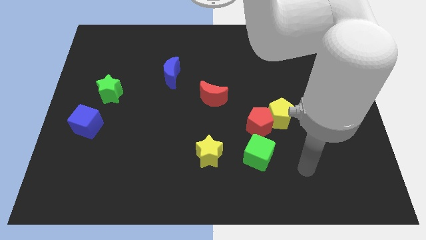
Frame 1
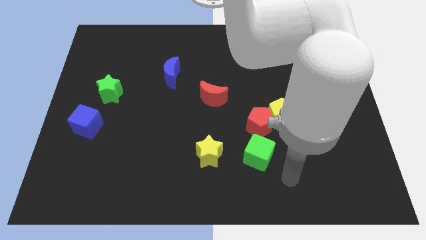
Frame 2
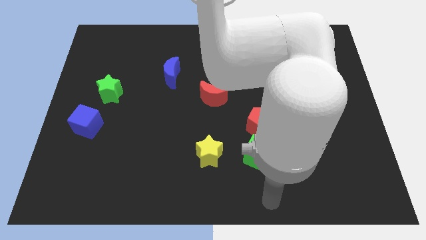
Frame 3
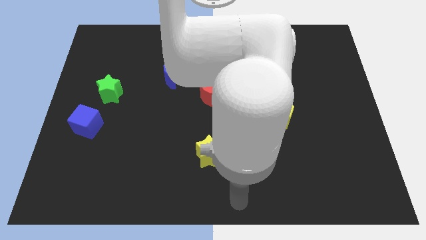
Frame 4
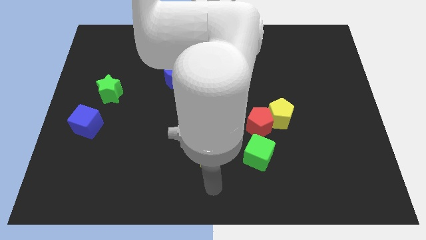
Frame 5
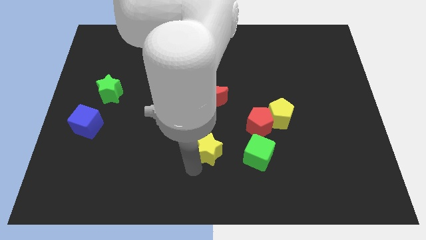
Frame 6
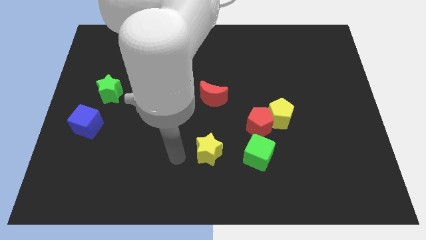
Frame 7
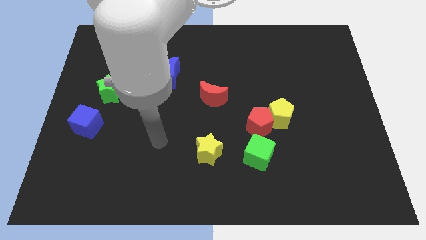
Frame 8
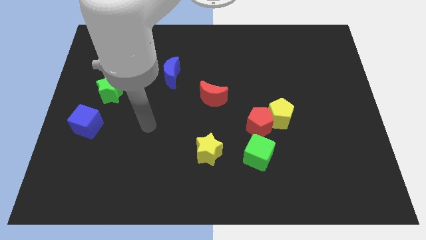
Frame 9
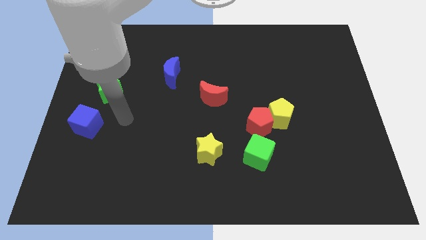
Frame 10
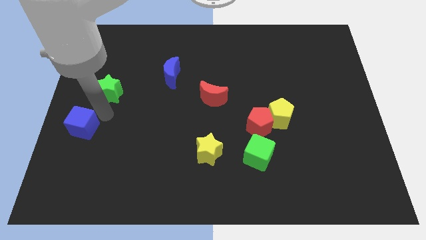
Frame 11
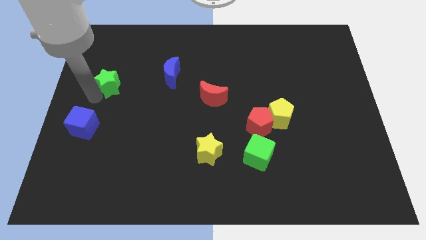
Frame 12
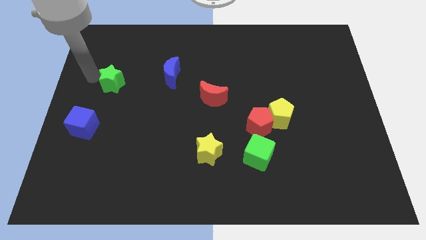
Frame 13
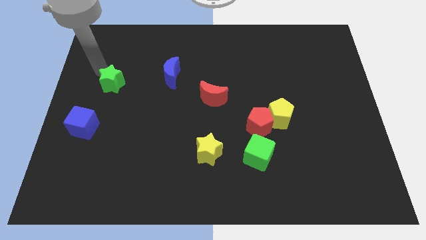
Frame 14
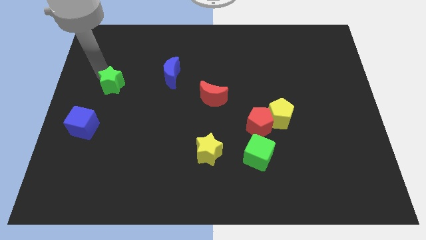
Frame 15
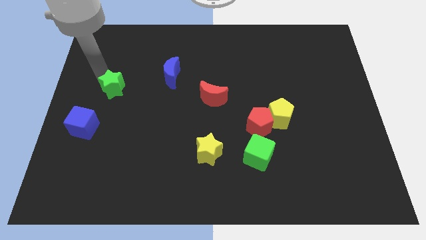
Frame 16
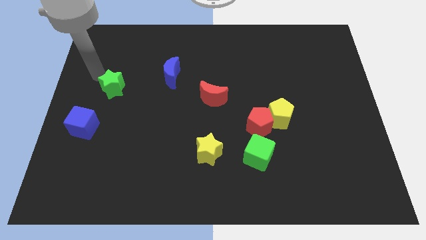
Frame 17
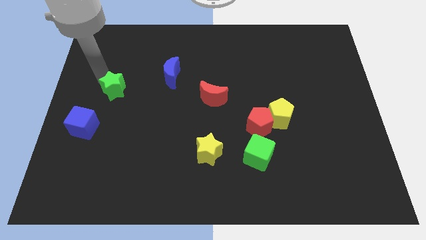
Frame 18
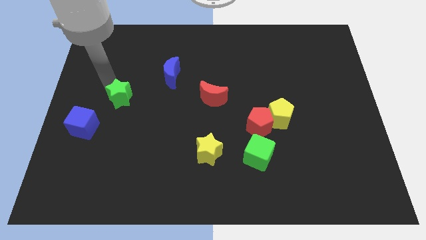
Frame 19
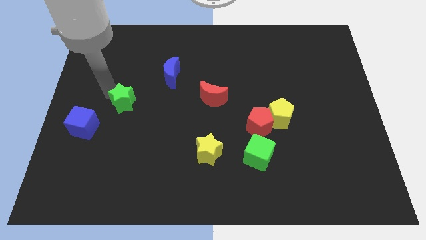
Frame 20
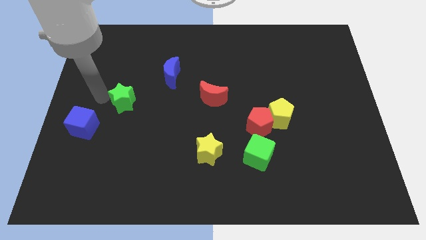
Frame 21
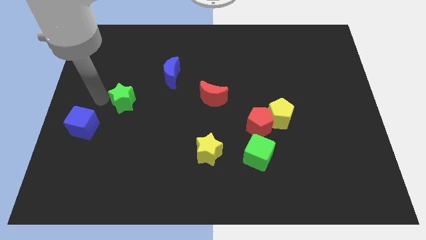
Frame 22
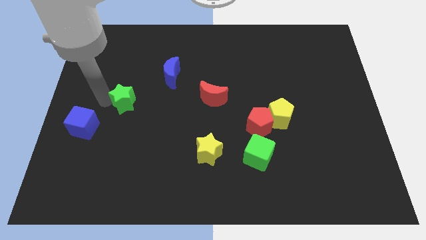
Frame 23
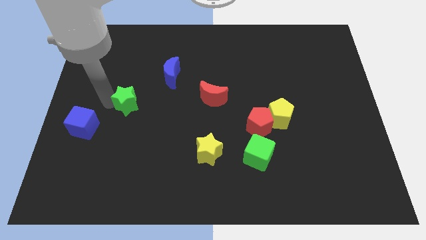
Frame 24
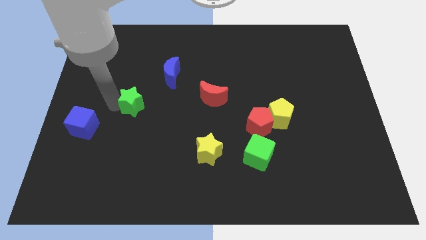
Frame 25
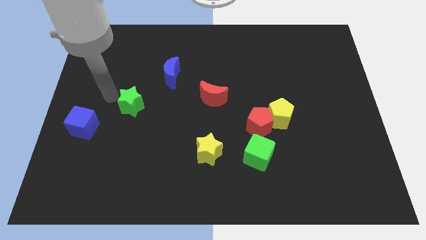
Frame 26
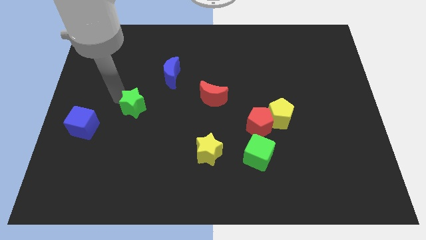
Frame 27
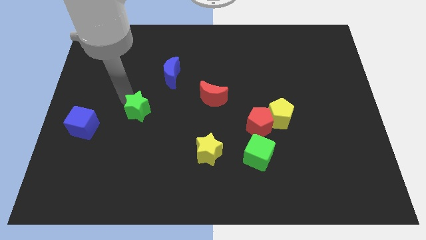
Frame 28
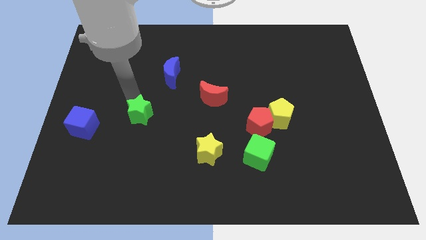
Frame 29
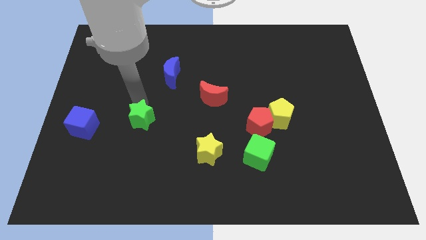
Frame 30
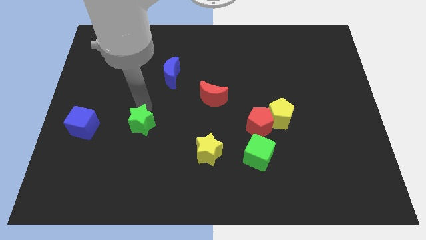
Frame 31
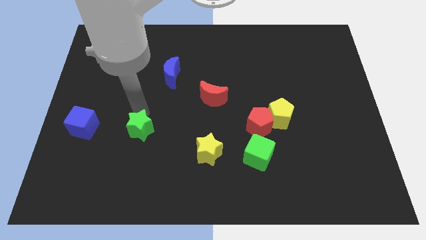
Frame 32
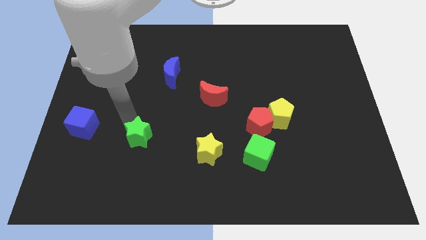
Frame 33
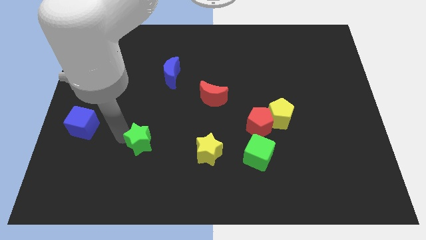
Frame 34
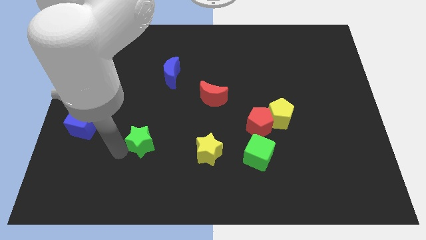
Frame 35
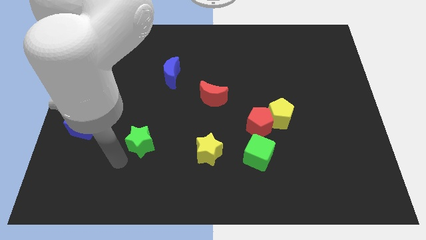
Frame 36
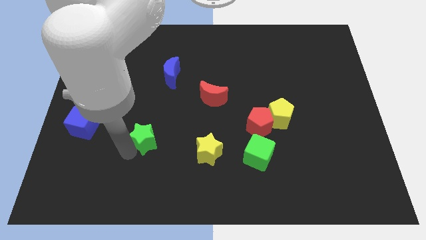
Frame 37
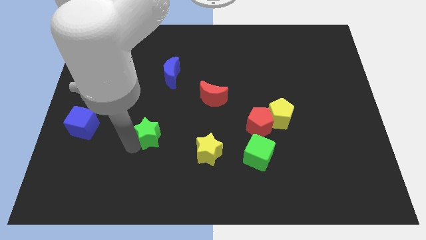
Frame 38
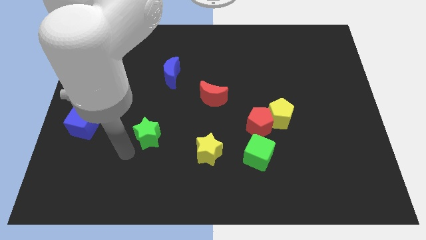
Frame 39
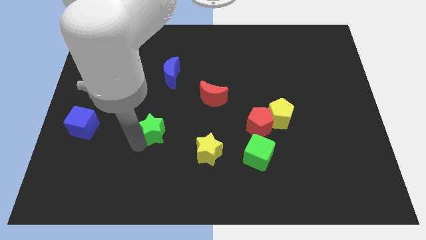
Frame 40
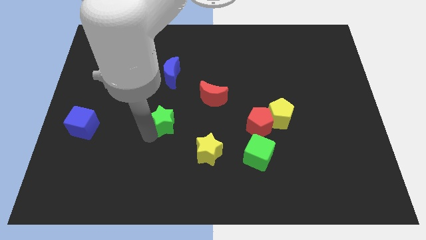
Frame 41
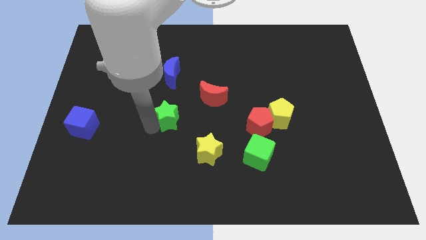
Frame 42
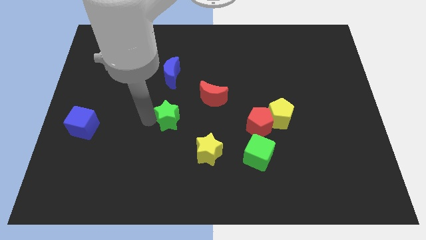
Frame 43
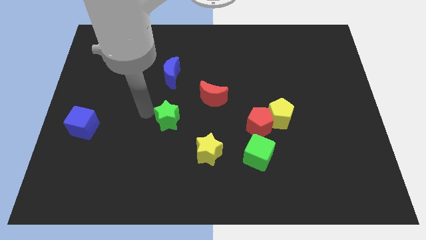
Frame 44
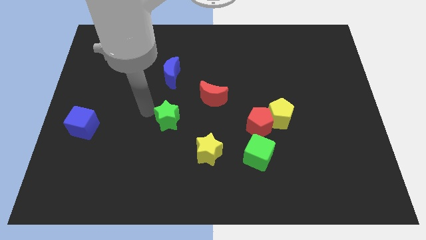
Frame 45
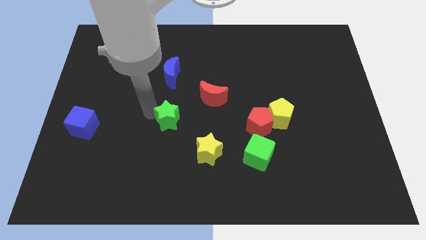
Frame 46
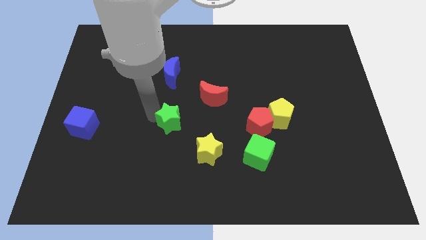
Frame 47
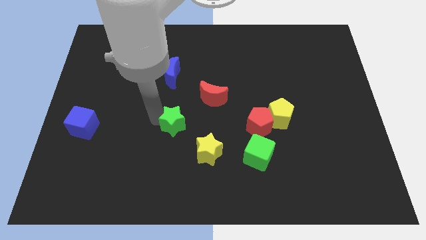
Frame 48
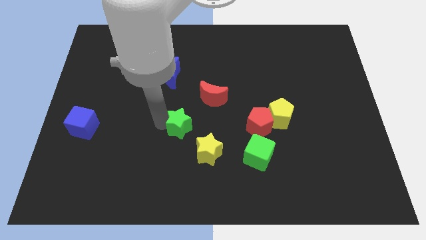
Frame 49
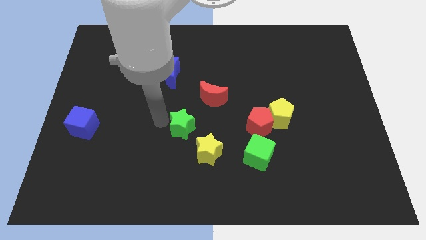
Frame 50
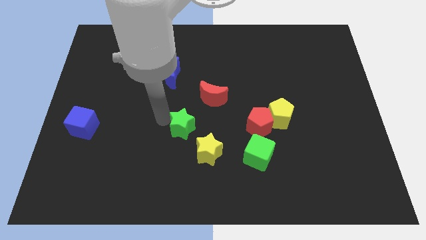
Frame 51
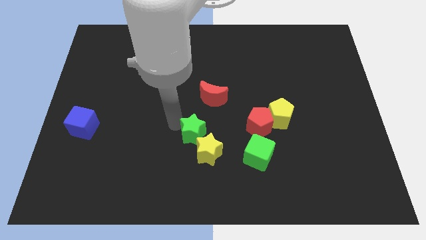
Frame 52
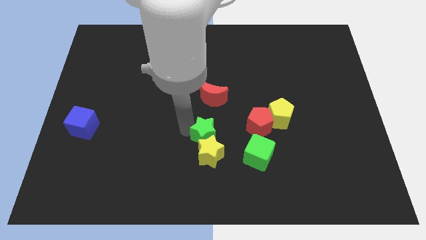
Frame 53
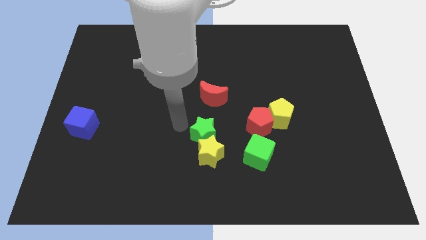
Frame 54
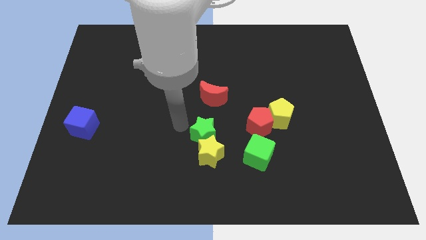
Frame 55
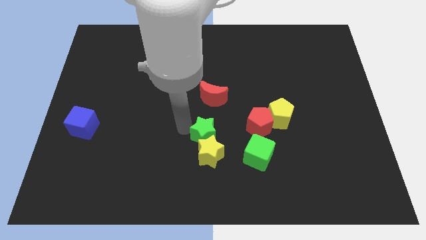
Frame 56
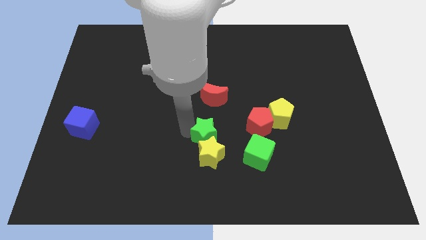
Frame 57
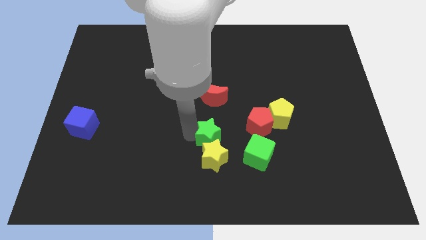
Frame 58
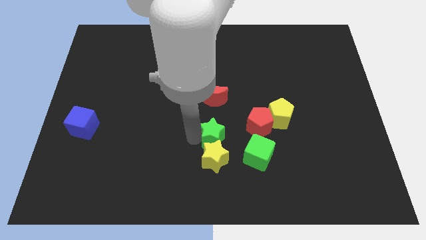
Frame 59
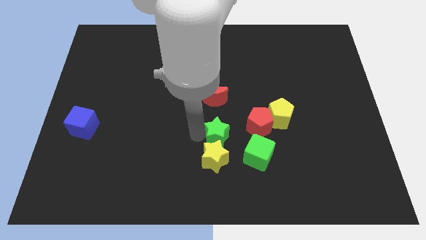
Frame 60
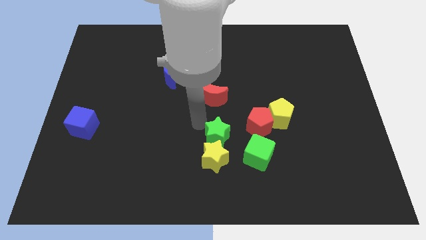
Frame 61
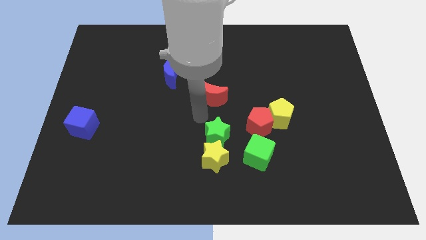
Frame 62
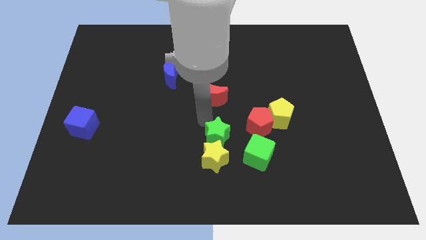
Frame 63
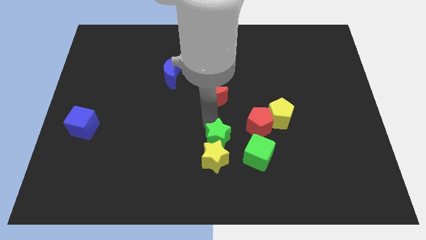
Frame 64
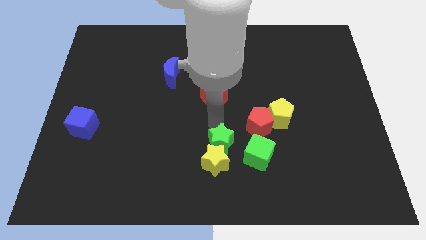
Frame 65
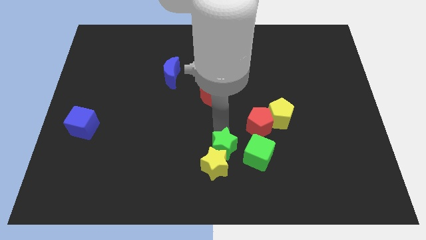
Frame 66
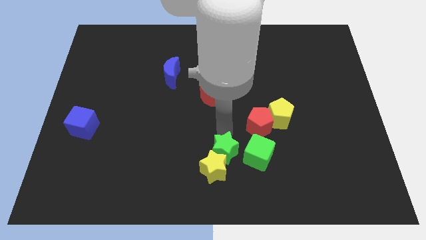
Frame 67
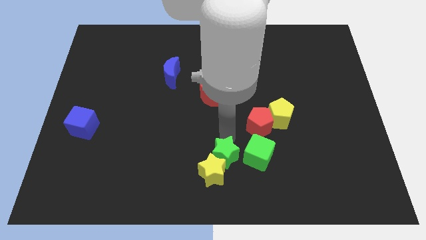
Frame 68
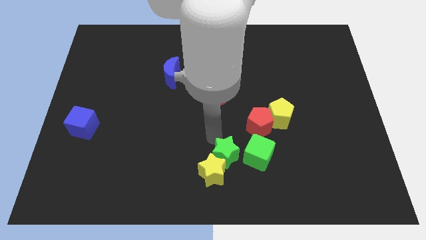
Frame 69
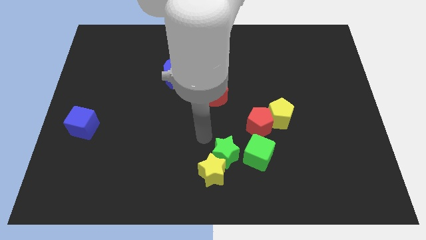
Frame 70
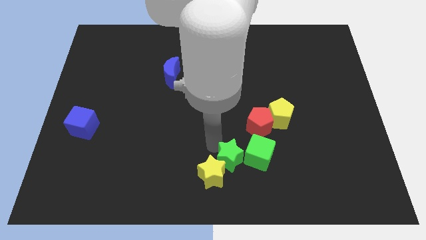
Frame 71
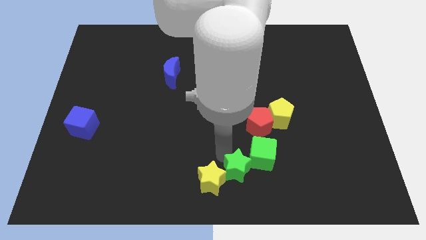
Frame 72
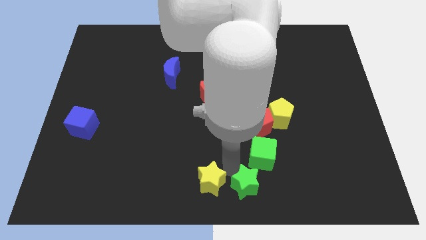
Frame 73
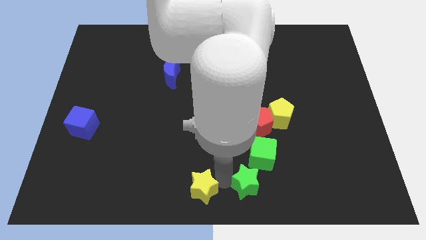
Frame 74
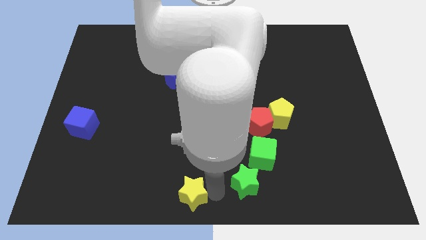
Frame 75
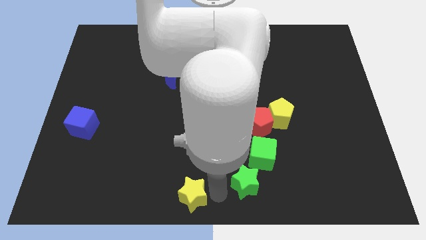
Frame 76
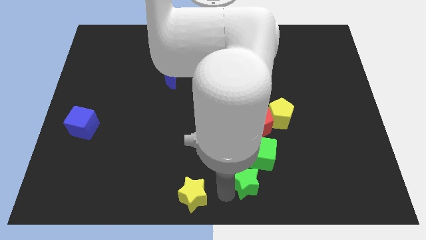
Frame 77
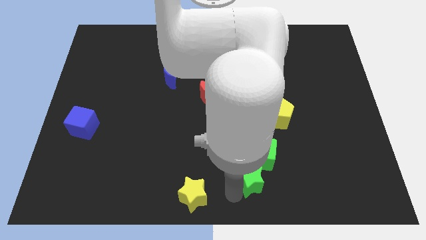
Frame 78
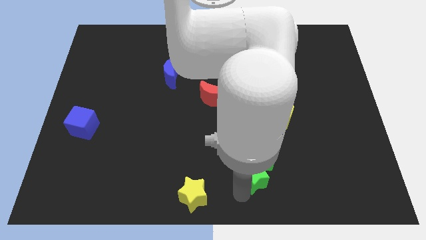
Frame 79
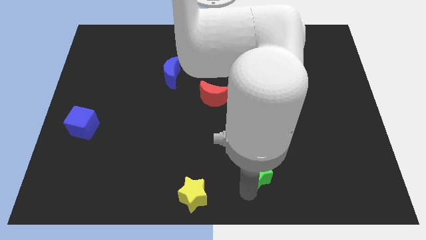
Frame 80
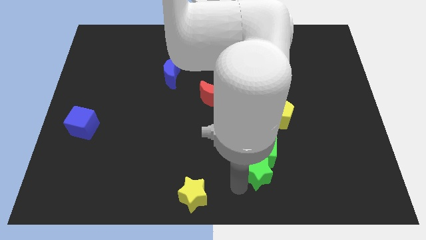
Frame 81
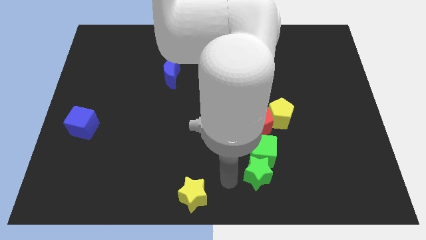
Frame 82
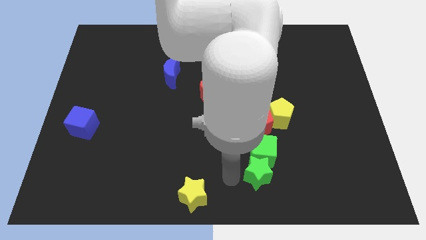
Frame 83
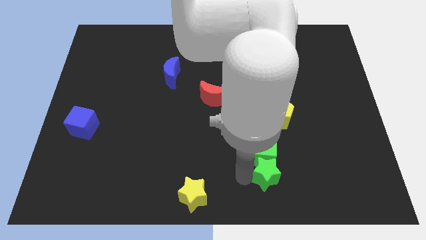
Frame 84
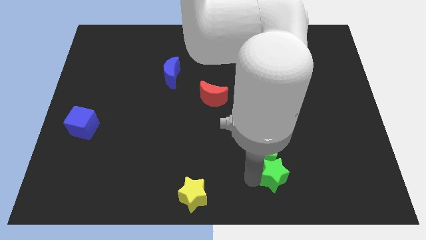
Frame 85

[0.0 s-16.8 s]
push the green star below the yellow pentagon
